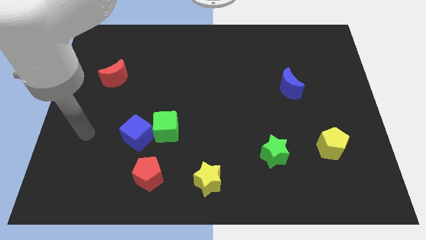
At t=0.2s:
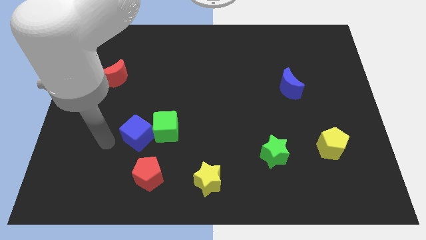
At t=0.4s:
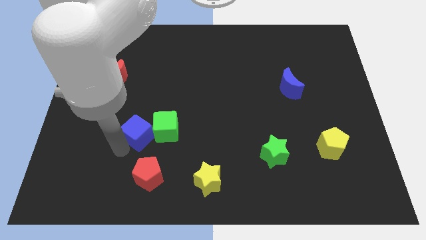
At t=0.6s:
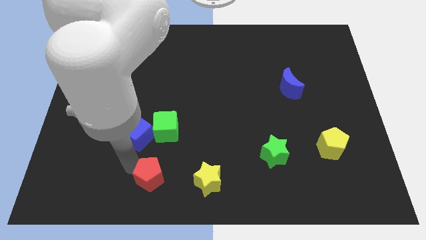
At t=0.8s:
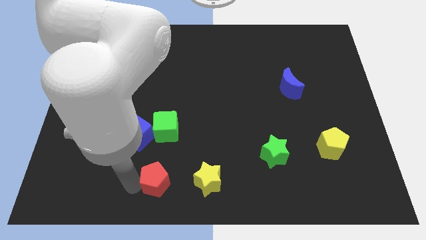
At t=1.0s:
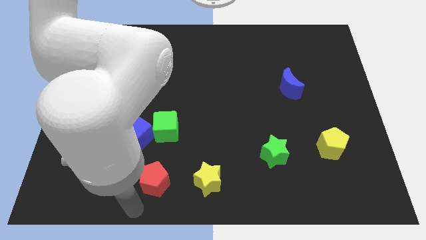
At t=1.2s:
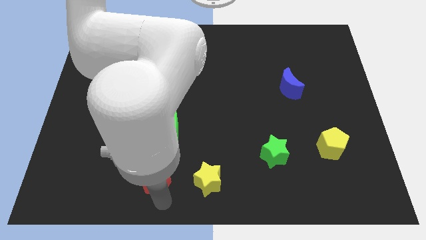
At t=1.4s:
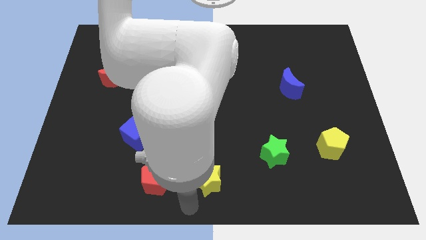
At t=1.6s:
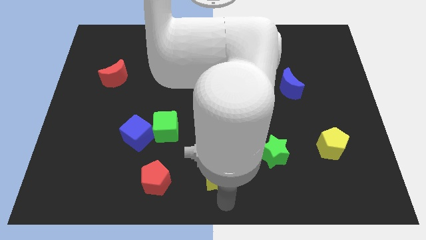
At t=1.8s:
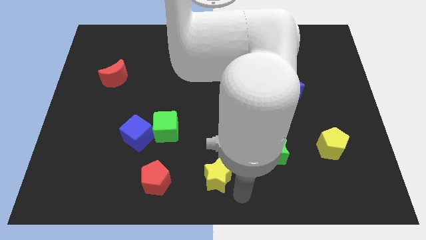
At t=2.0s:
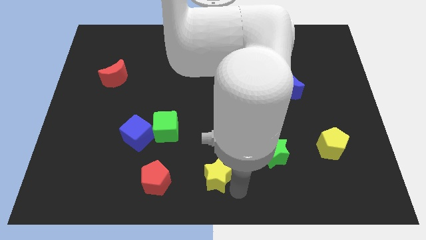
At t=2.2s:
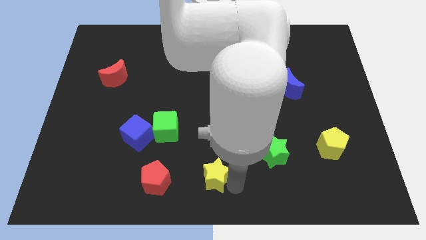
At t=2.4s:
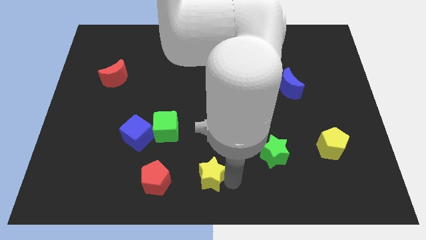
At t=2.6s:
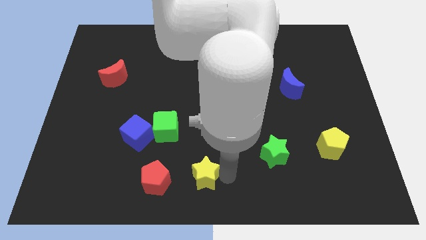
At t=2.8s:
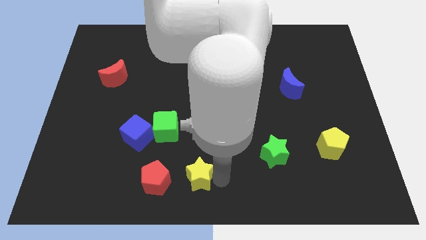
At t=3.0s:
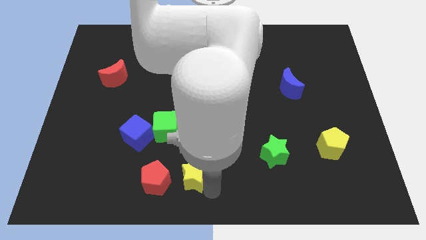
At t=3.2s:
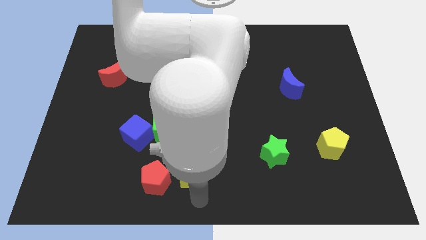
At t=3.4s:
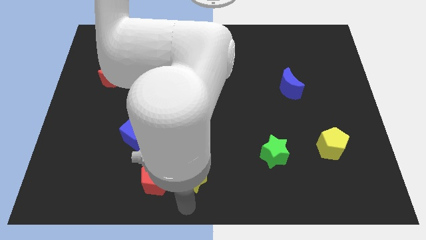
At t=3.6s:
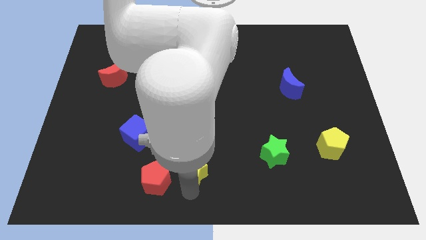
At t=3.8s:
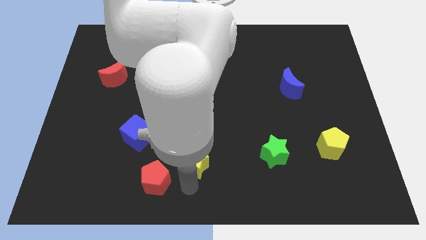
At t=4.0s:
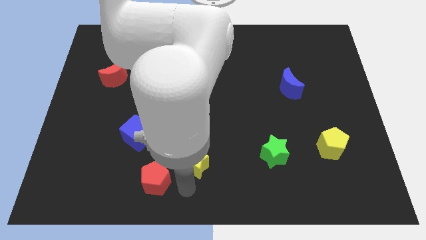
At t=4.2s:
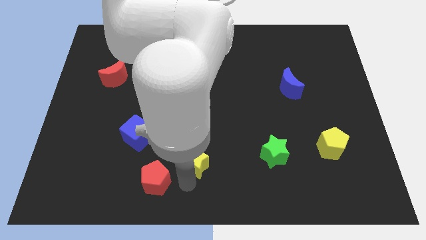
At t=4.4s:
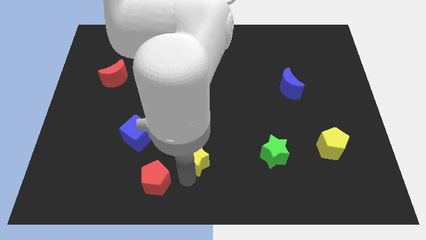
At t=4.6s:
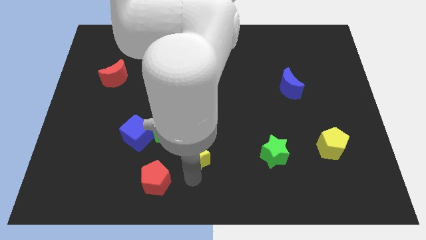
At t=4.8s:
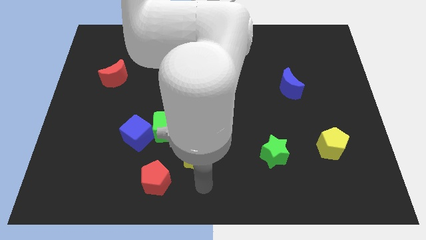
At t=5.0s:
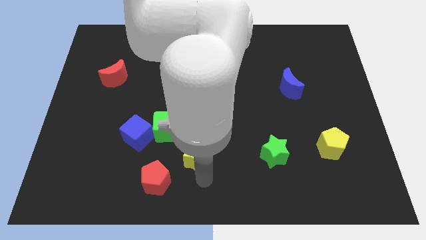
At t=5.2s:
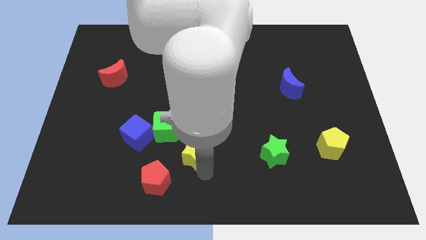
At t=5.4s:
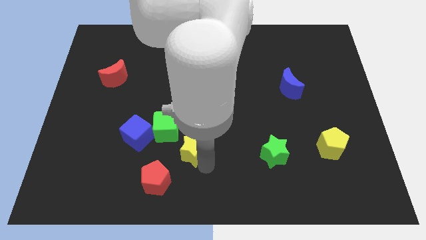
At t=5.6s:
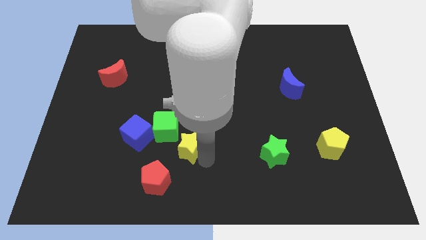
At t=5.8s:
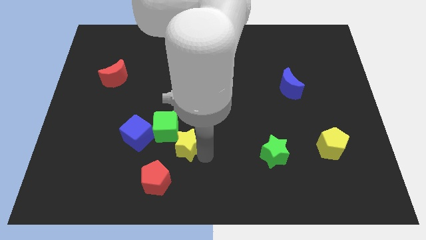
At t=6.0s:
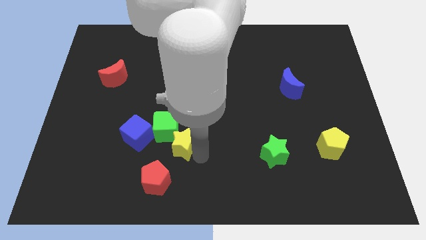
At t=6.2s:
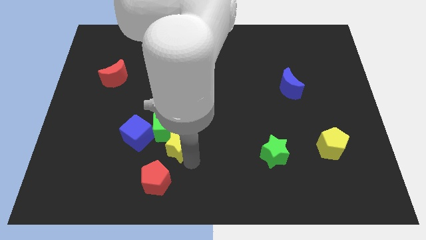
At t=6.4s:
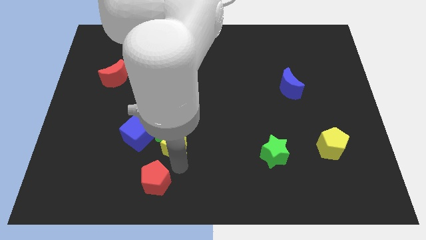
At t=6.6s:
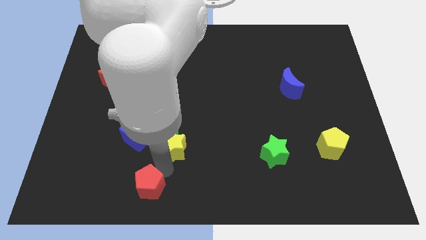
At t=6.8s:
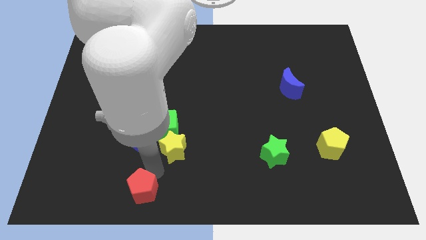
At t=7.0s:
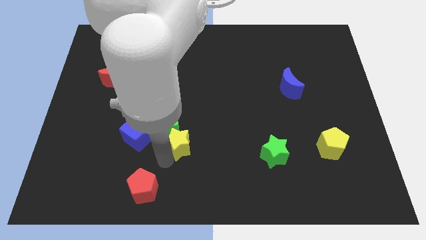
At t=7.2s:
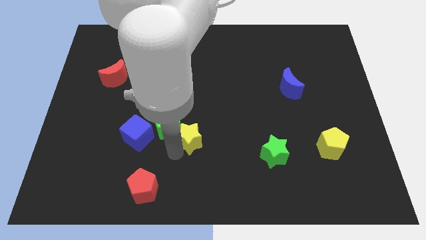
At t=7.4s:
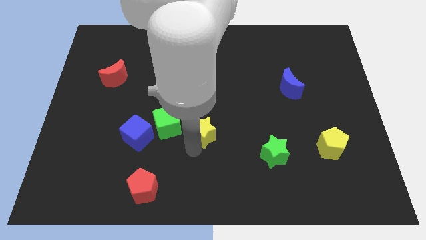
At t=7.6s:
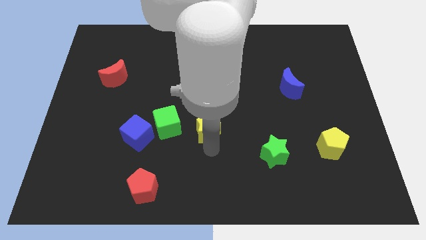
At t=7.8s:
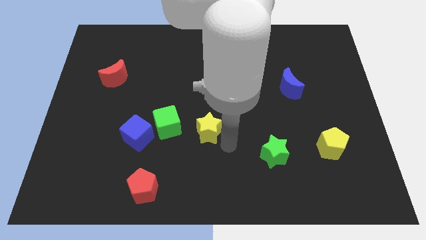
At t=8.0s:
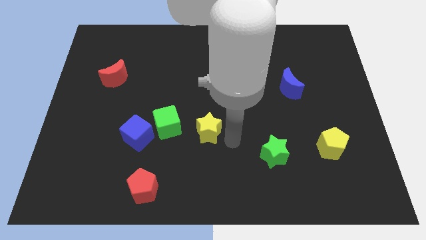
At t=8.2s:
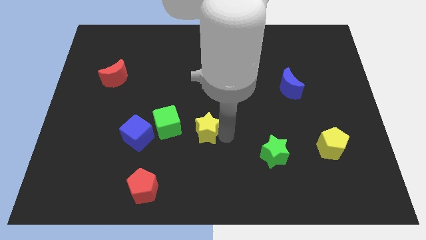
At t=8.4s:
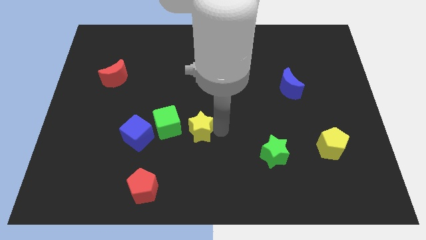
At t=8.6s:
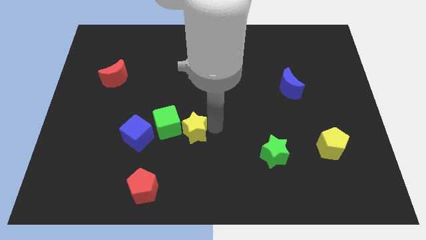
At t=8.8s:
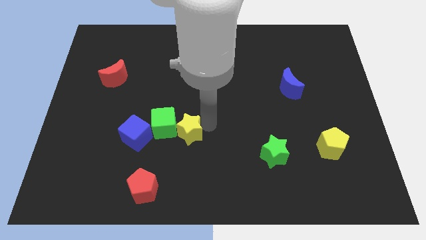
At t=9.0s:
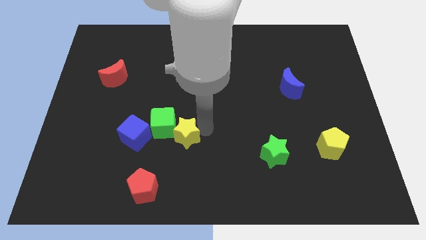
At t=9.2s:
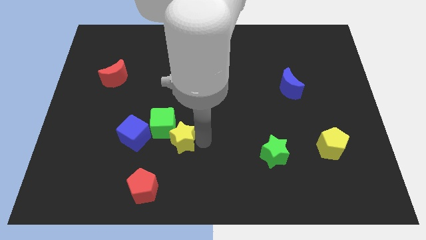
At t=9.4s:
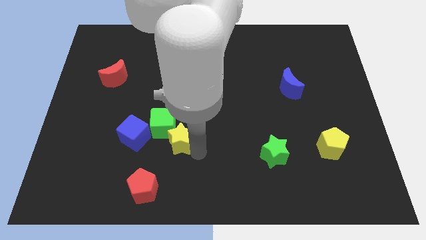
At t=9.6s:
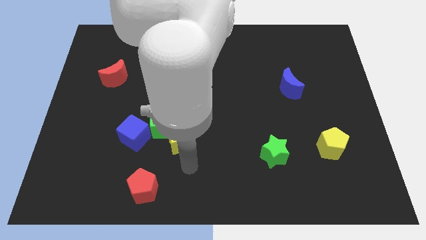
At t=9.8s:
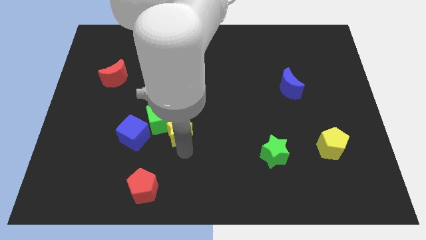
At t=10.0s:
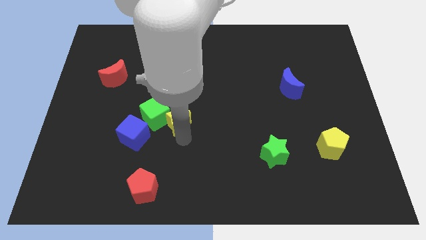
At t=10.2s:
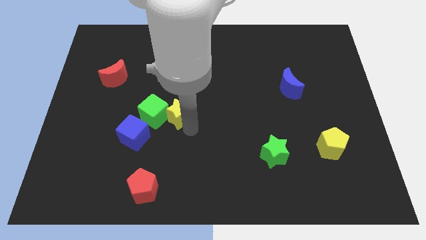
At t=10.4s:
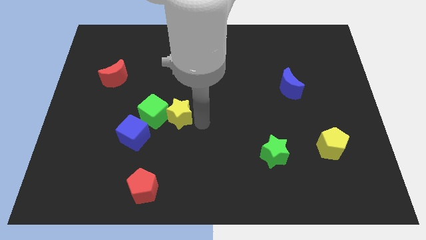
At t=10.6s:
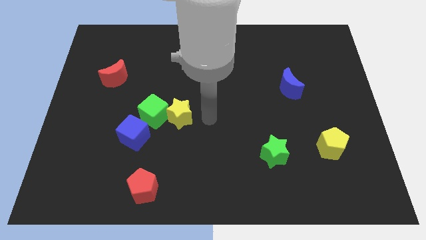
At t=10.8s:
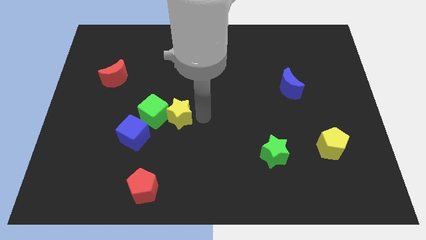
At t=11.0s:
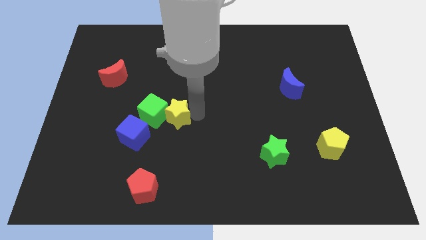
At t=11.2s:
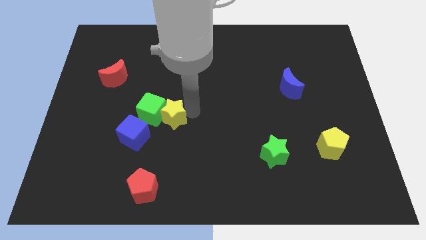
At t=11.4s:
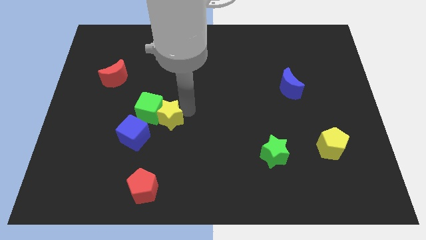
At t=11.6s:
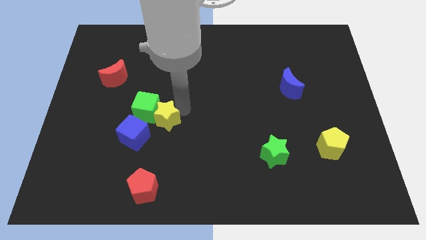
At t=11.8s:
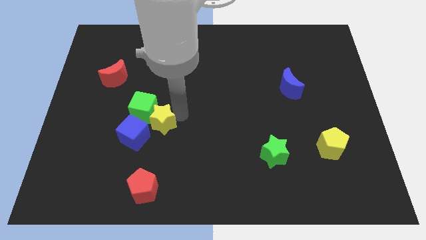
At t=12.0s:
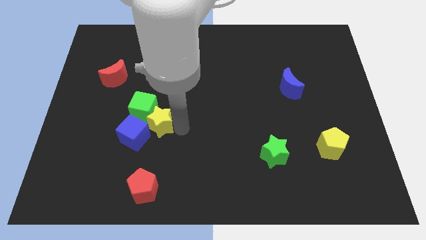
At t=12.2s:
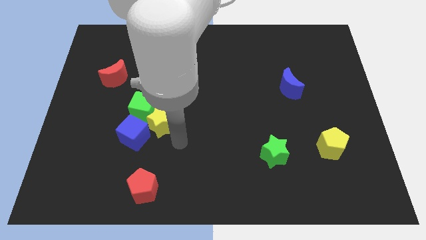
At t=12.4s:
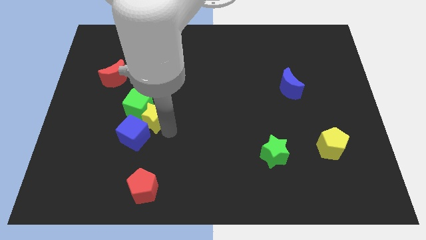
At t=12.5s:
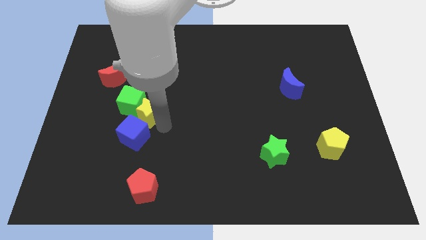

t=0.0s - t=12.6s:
slide the yellow star up and to the left diagonally

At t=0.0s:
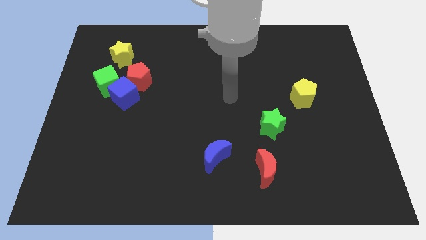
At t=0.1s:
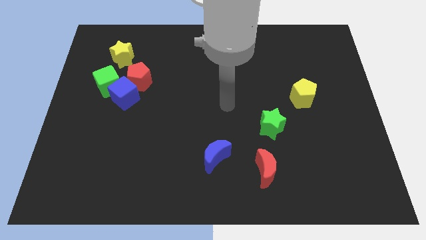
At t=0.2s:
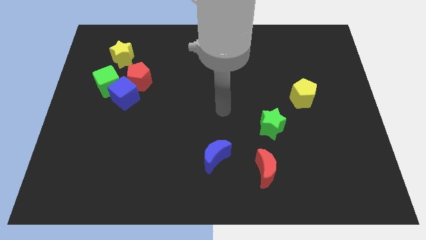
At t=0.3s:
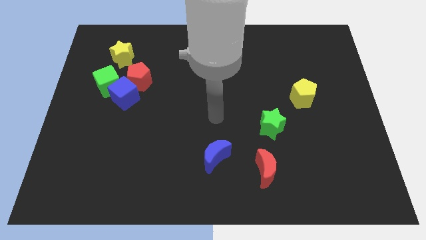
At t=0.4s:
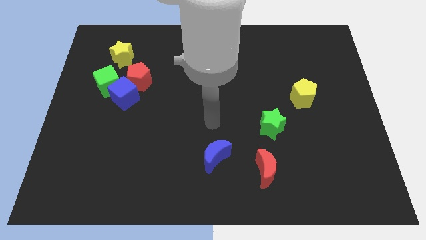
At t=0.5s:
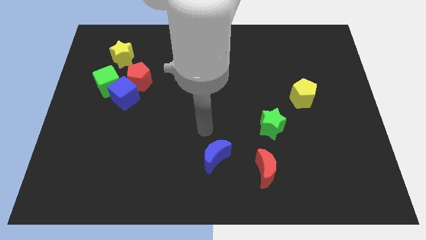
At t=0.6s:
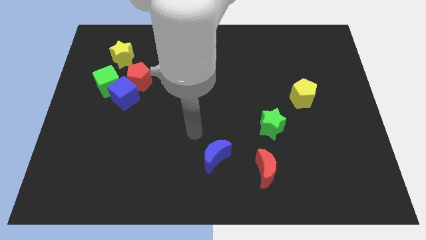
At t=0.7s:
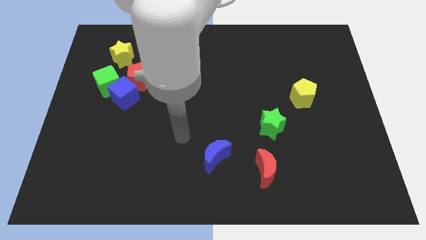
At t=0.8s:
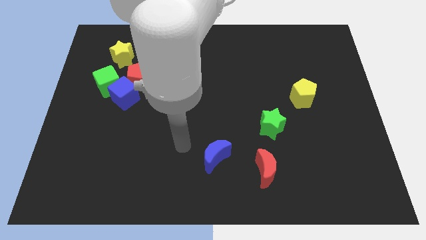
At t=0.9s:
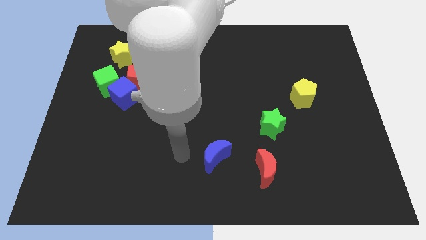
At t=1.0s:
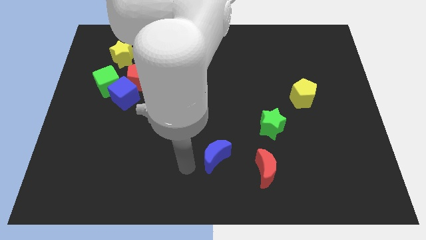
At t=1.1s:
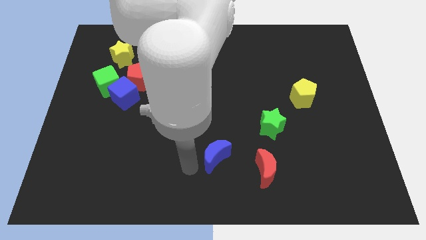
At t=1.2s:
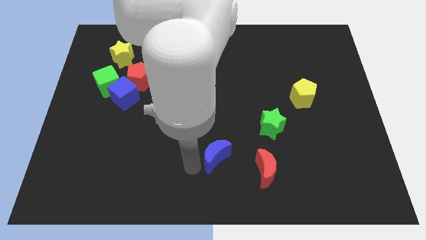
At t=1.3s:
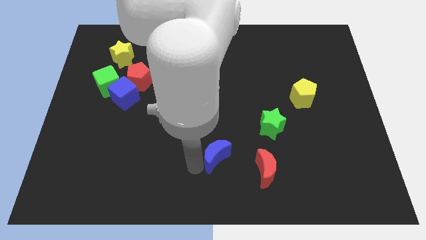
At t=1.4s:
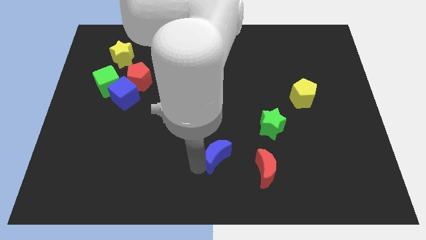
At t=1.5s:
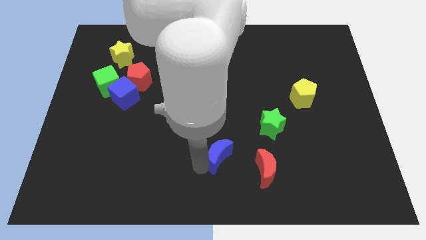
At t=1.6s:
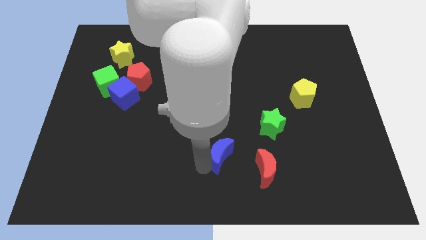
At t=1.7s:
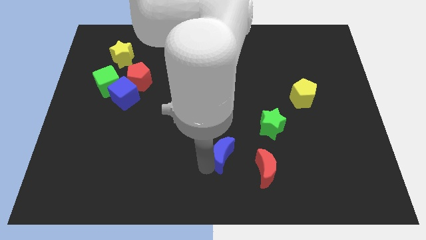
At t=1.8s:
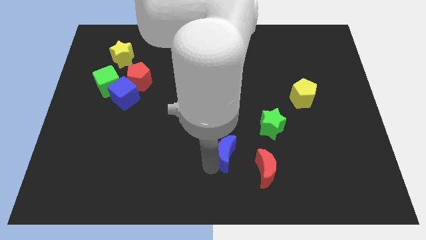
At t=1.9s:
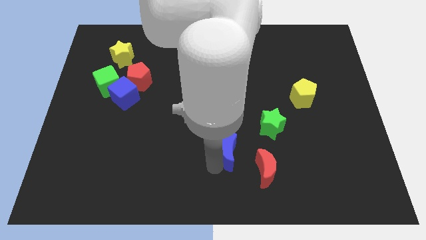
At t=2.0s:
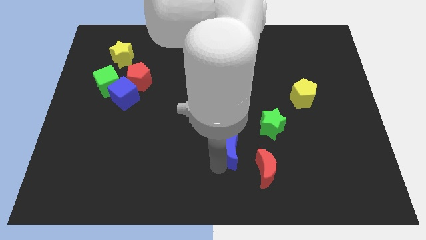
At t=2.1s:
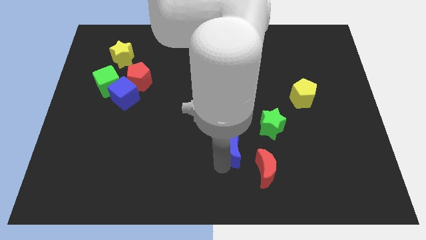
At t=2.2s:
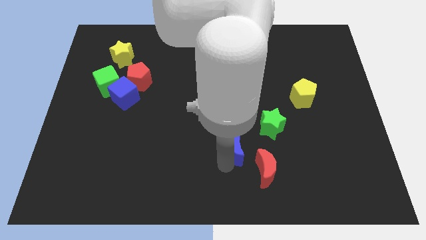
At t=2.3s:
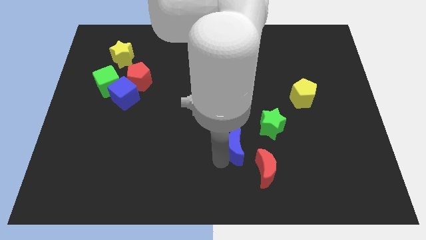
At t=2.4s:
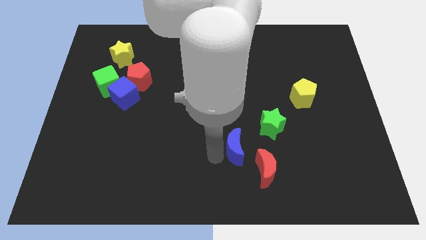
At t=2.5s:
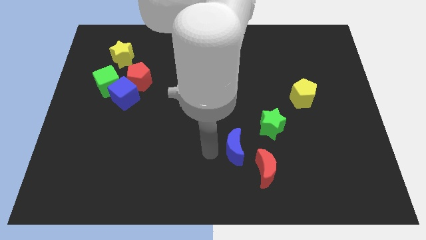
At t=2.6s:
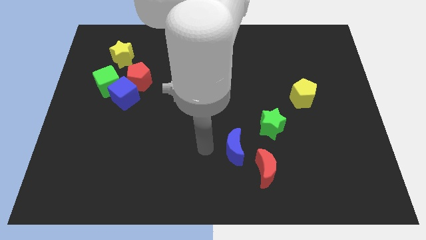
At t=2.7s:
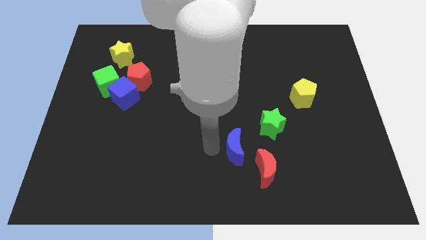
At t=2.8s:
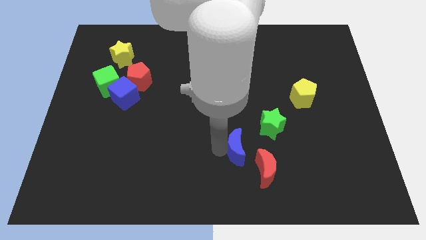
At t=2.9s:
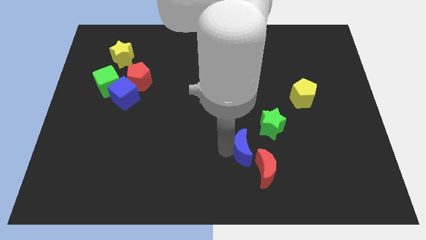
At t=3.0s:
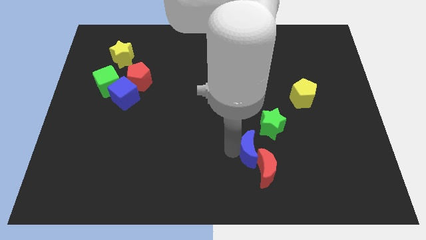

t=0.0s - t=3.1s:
slightly slide the blue moon right
